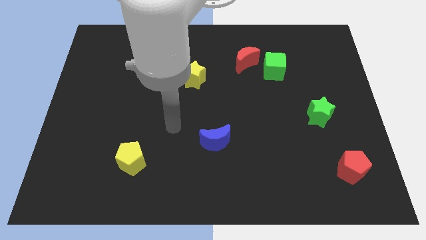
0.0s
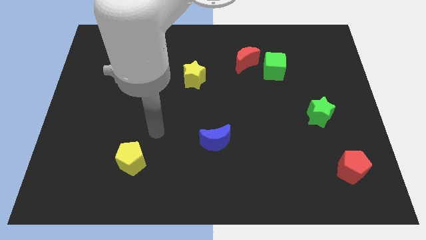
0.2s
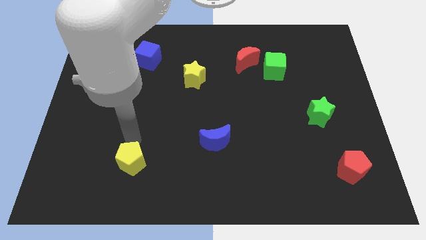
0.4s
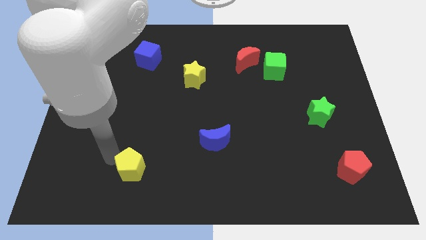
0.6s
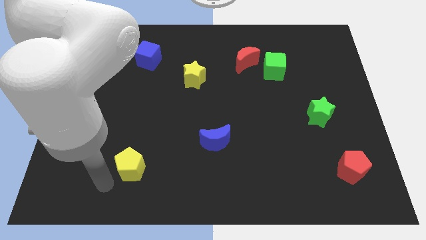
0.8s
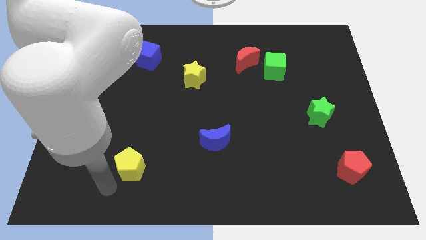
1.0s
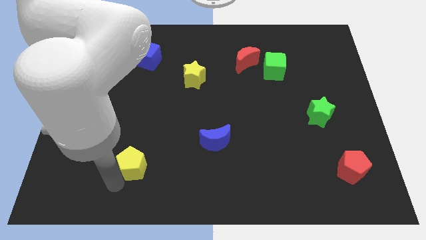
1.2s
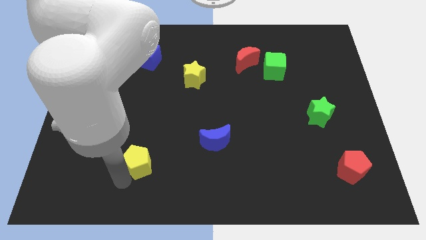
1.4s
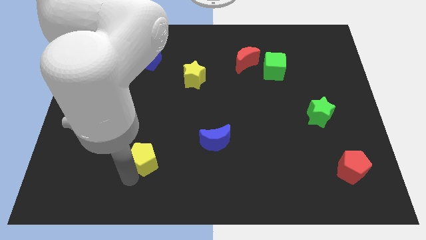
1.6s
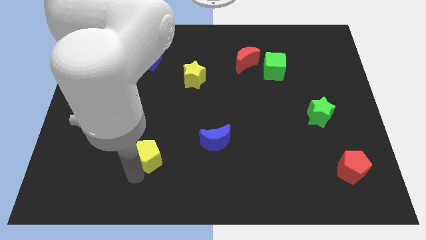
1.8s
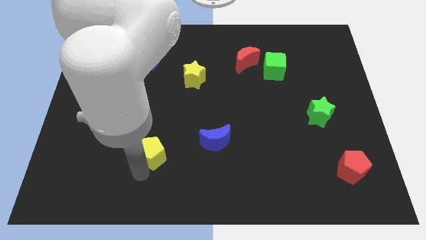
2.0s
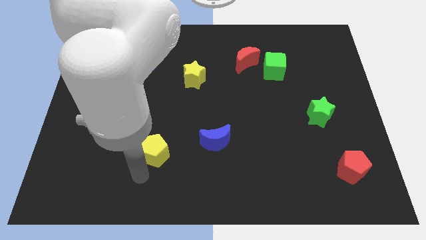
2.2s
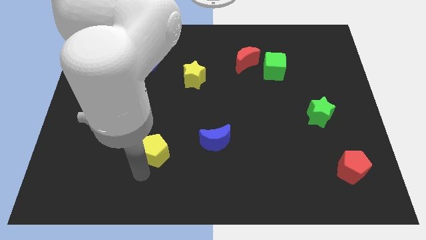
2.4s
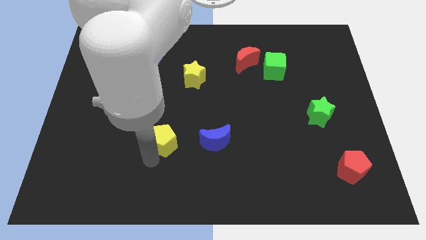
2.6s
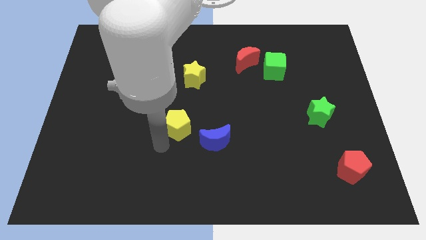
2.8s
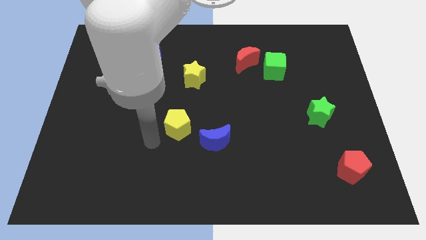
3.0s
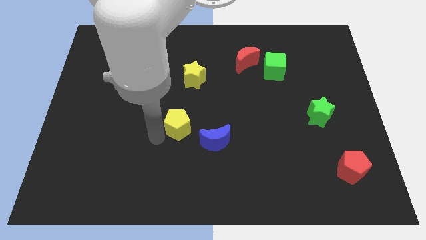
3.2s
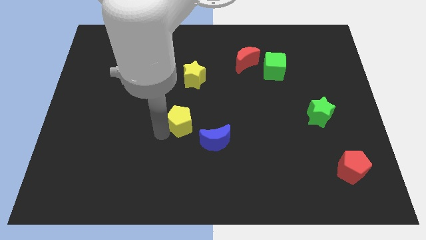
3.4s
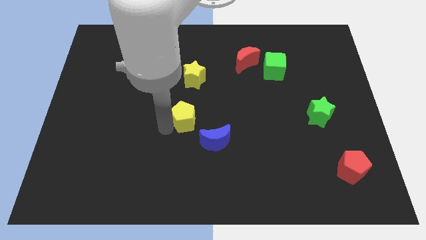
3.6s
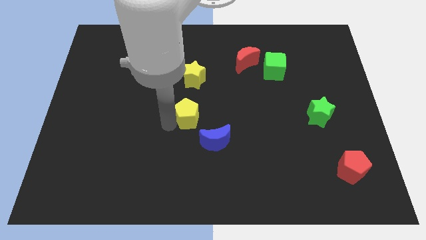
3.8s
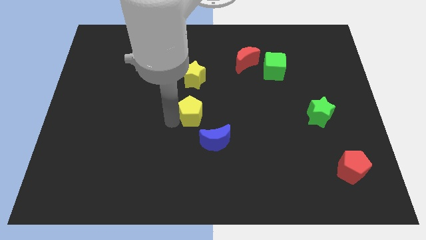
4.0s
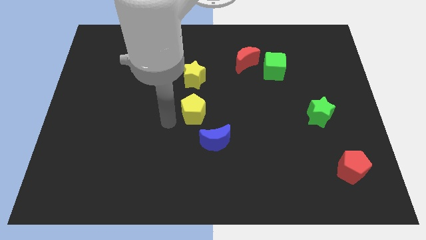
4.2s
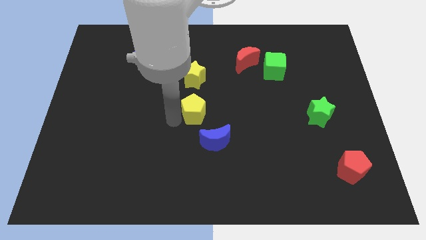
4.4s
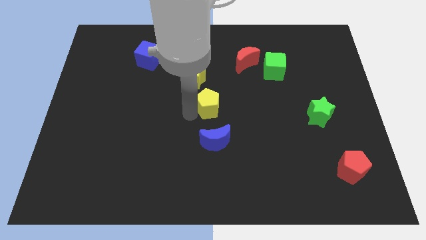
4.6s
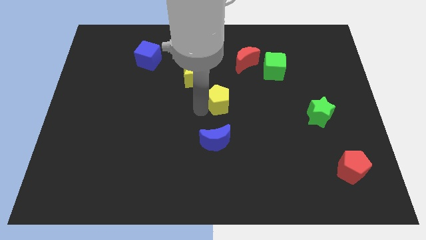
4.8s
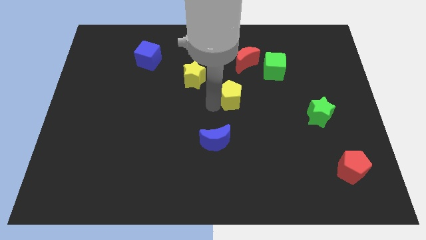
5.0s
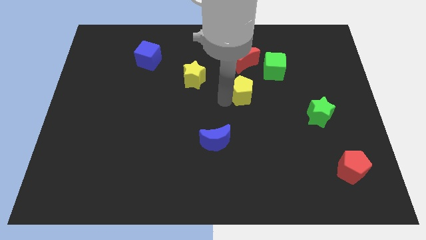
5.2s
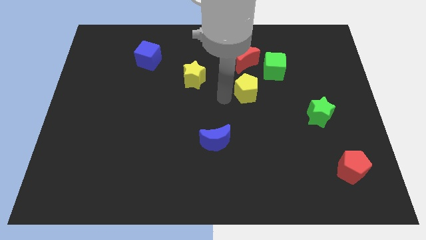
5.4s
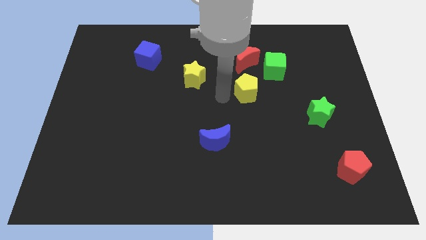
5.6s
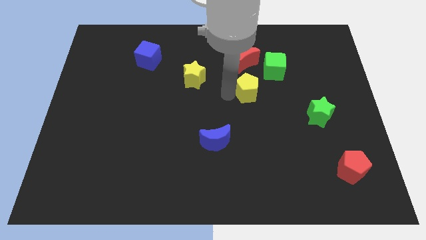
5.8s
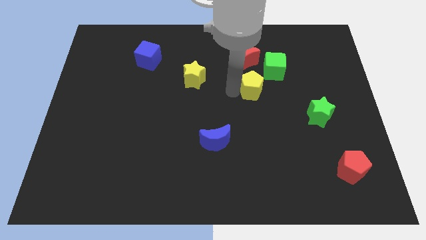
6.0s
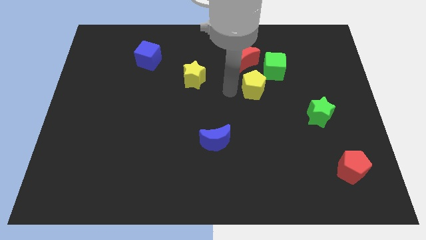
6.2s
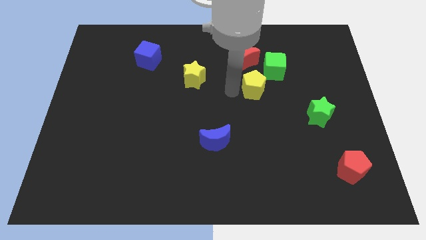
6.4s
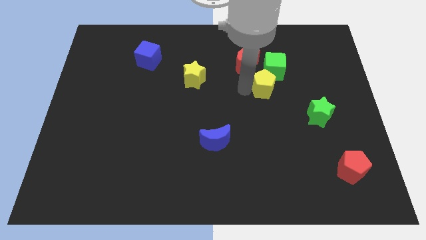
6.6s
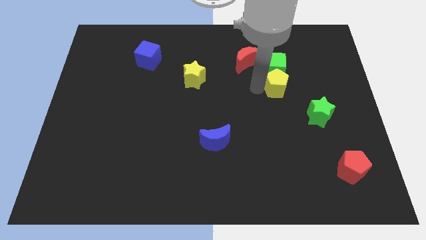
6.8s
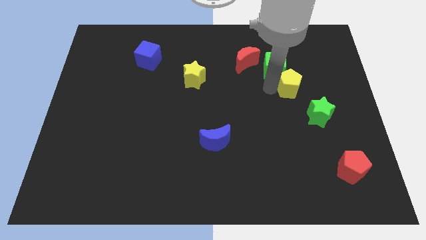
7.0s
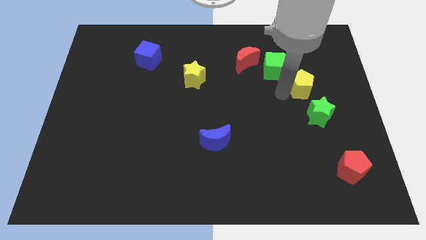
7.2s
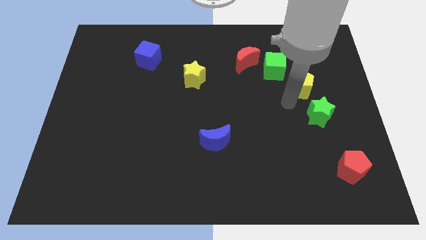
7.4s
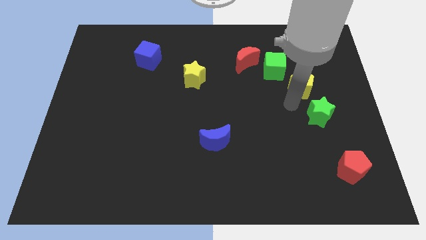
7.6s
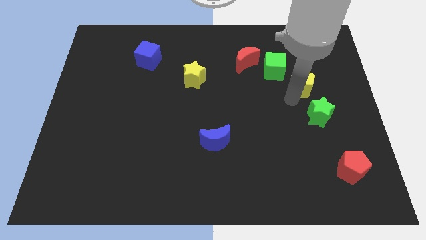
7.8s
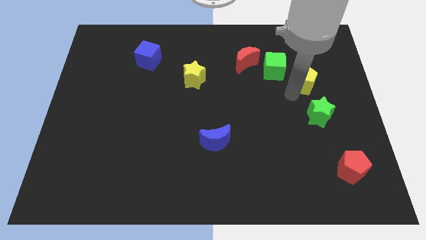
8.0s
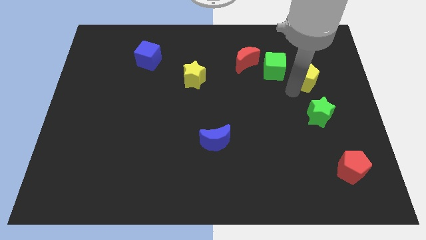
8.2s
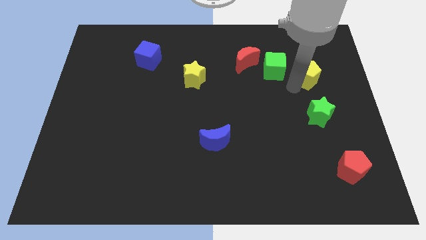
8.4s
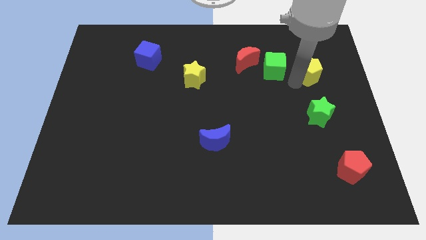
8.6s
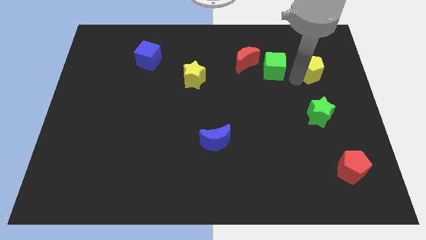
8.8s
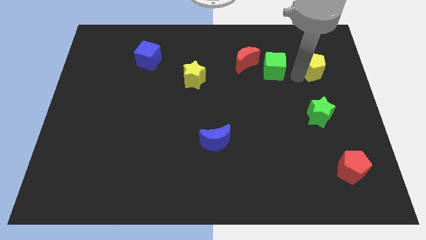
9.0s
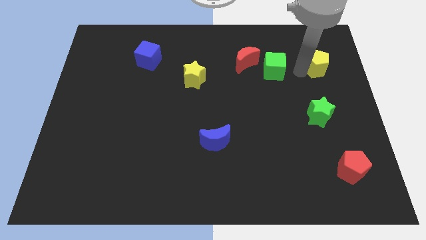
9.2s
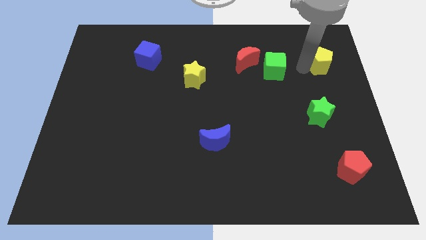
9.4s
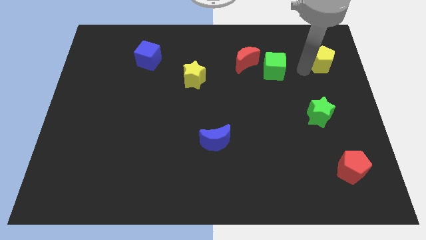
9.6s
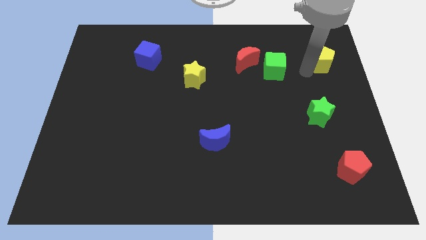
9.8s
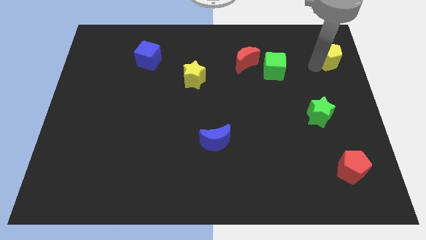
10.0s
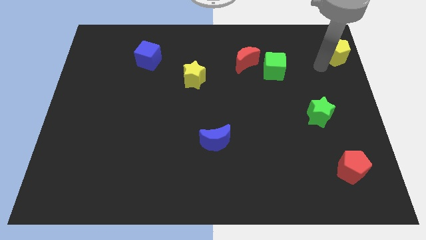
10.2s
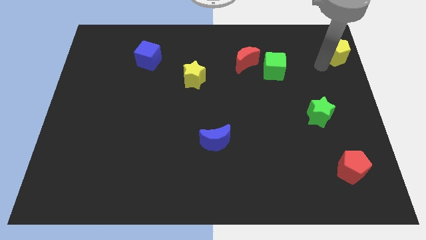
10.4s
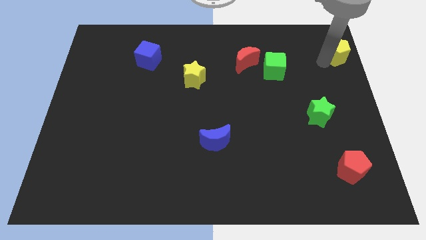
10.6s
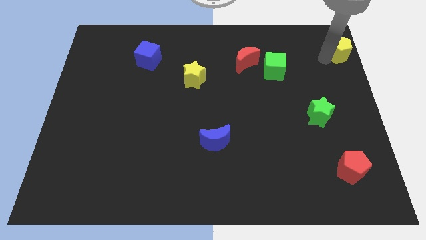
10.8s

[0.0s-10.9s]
slide the yellow pentagon to the top right corner

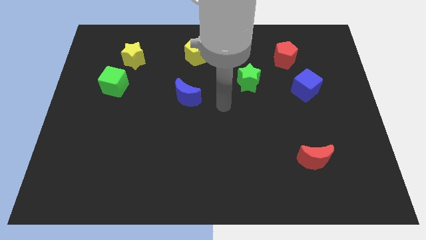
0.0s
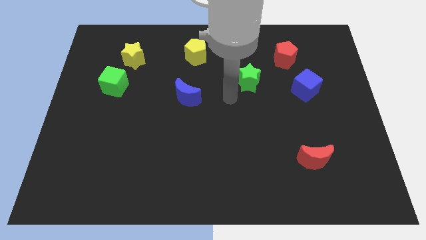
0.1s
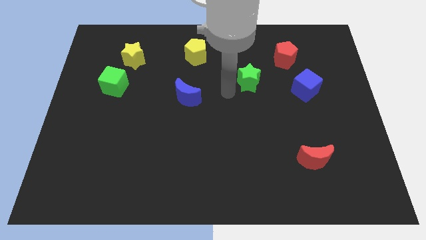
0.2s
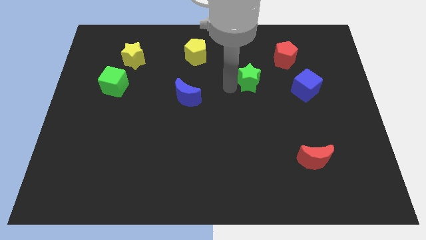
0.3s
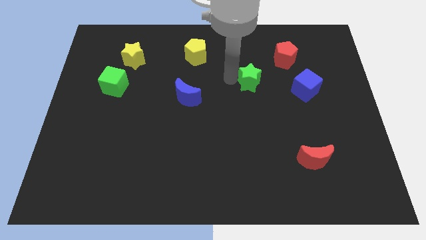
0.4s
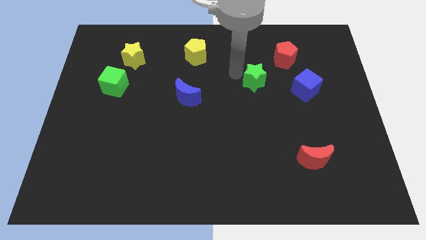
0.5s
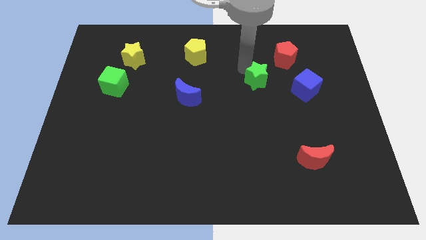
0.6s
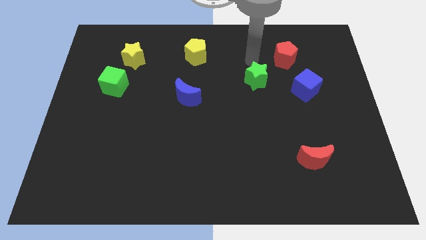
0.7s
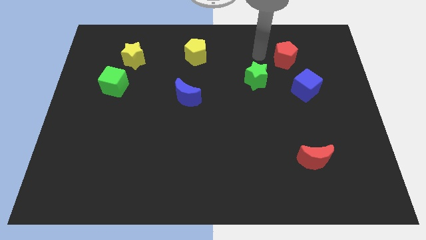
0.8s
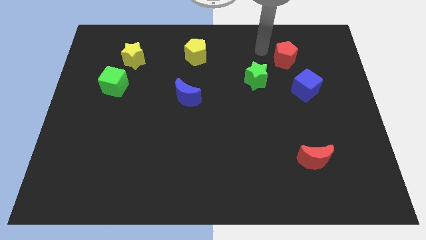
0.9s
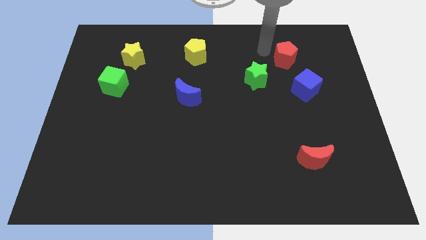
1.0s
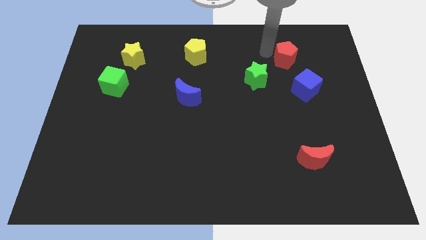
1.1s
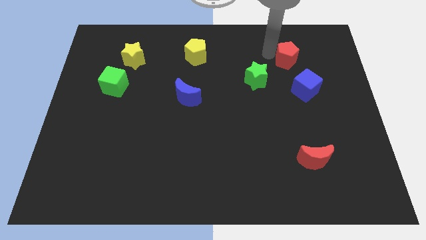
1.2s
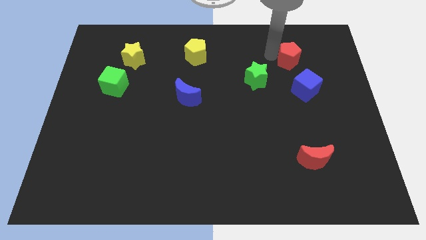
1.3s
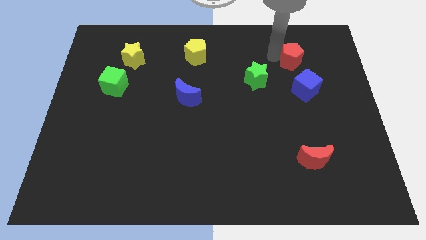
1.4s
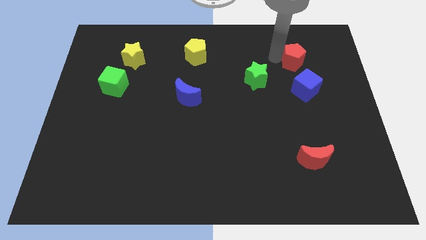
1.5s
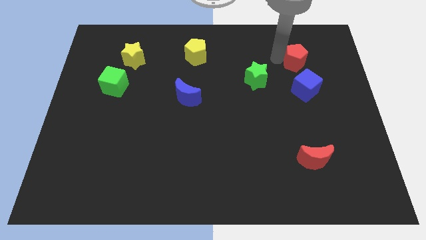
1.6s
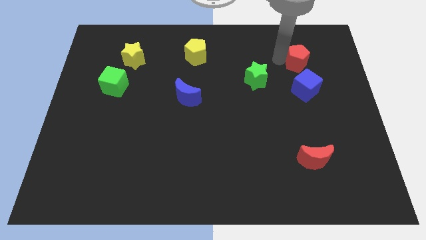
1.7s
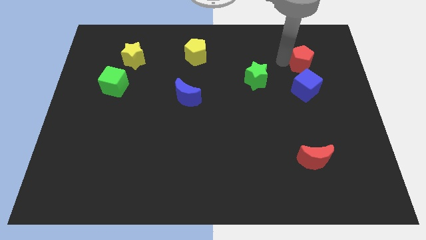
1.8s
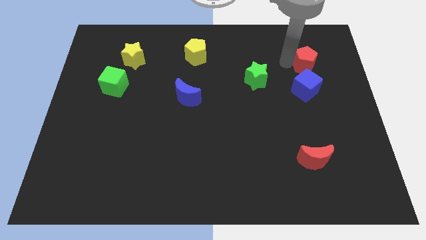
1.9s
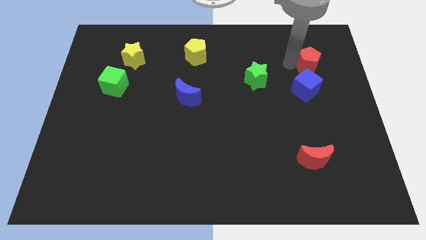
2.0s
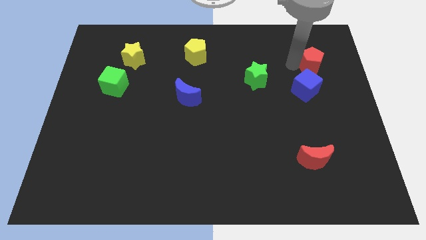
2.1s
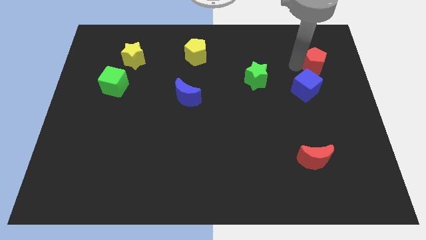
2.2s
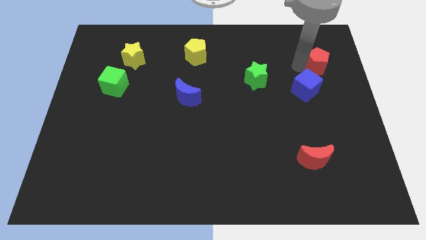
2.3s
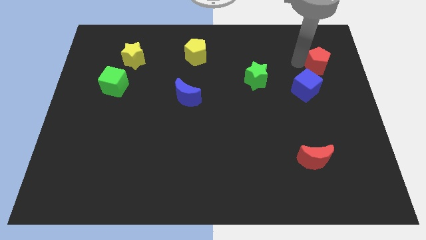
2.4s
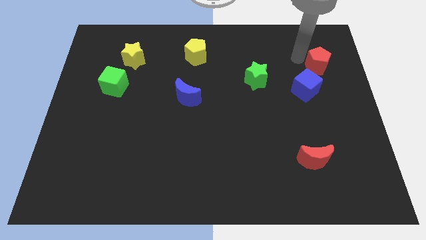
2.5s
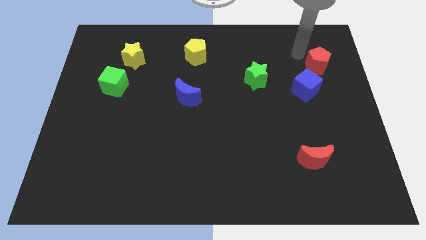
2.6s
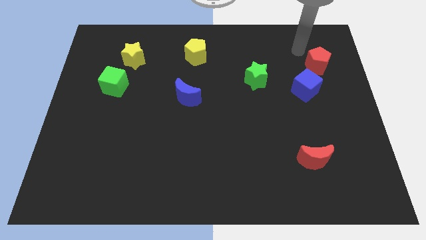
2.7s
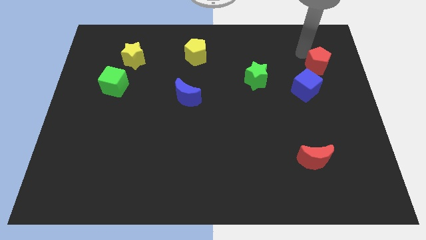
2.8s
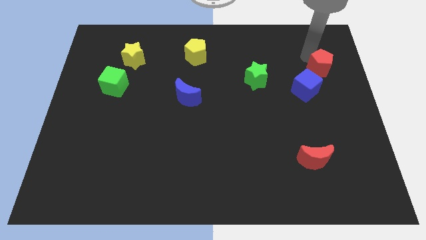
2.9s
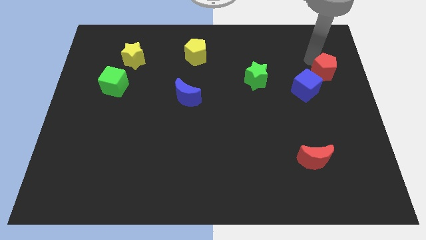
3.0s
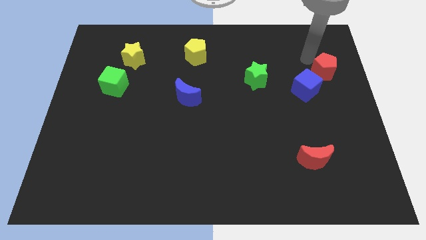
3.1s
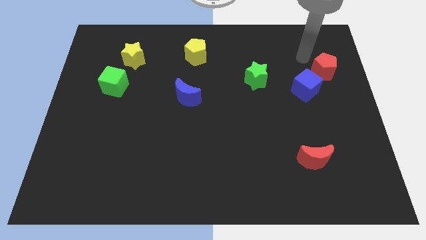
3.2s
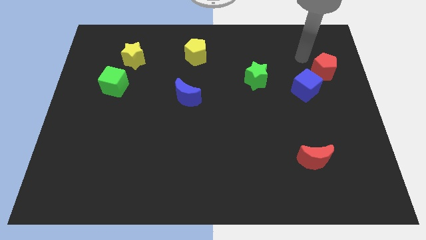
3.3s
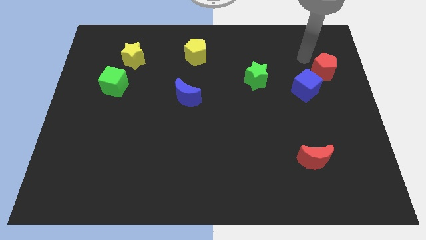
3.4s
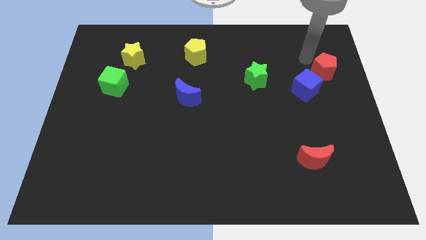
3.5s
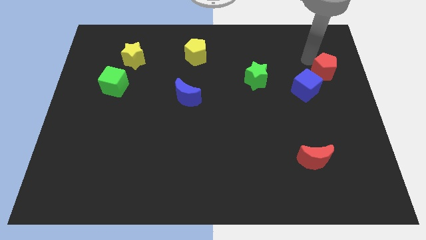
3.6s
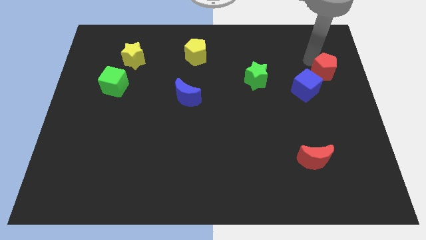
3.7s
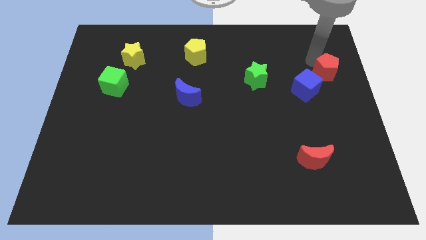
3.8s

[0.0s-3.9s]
move the red pentagon to the center right
